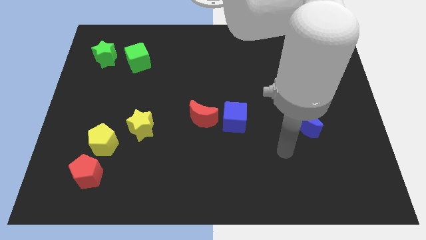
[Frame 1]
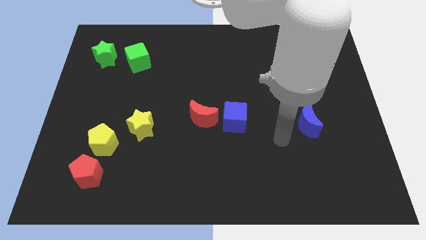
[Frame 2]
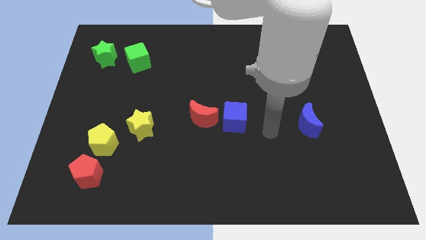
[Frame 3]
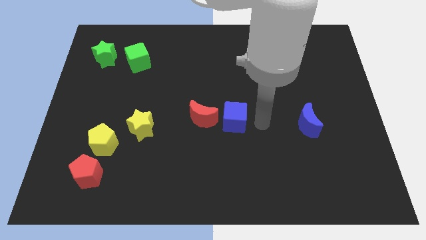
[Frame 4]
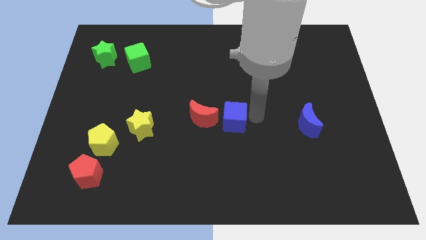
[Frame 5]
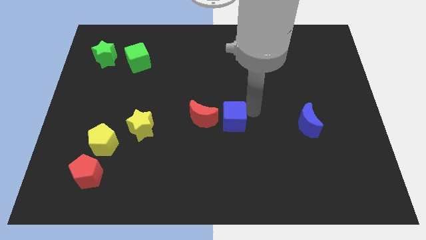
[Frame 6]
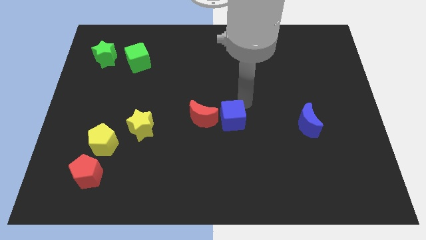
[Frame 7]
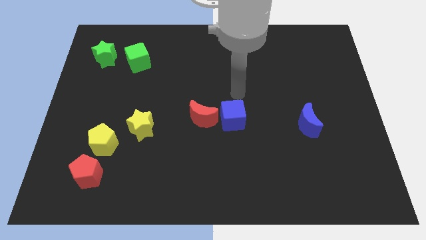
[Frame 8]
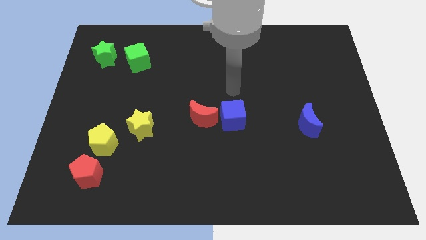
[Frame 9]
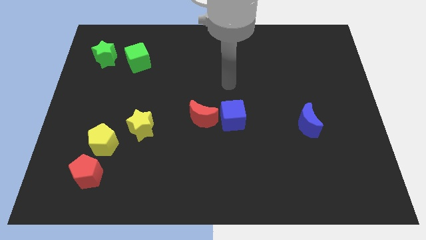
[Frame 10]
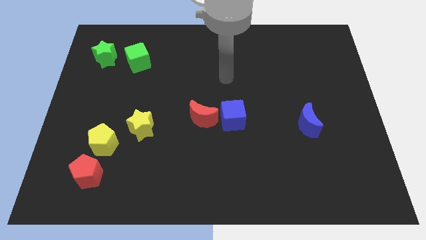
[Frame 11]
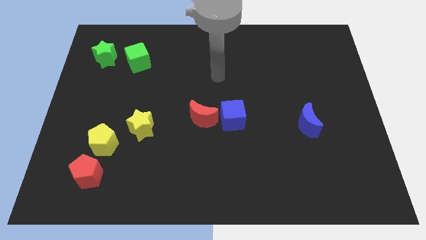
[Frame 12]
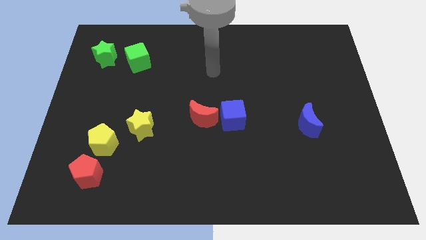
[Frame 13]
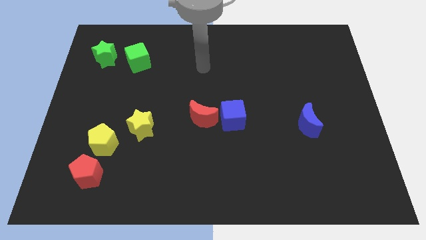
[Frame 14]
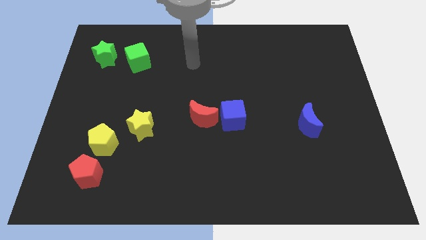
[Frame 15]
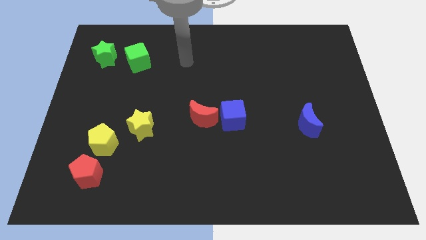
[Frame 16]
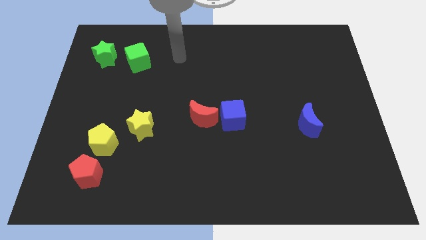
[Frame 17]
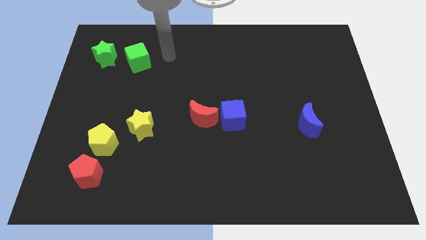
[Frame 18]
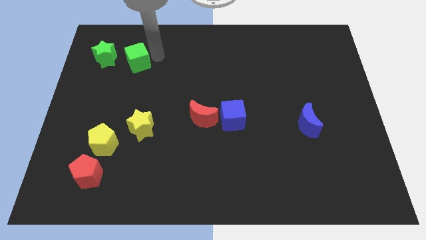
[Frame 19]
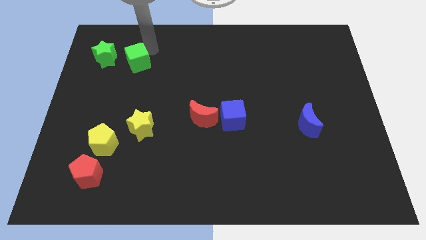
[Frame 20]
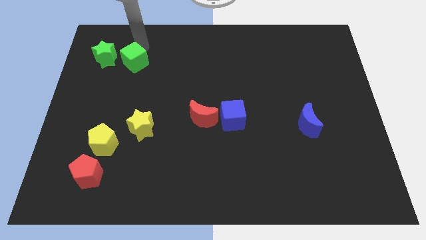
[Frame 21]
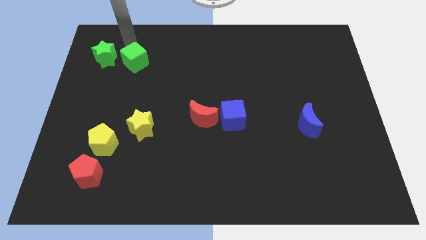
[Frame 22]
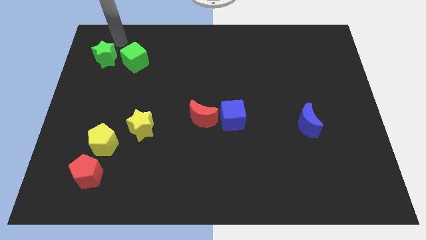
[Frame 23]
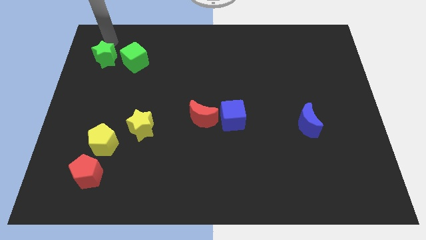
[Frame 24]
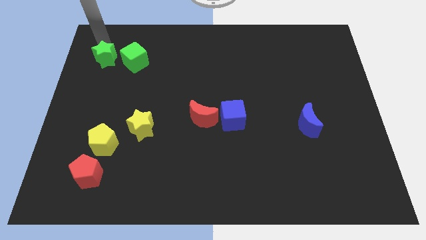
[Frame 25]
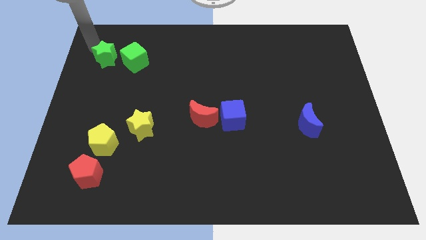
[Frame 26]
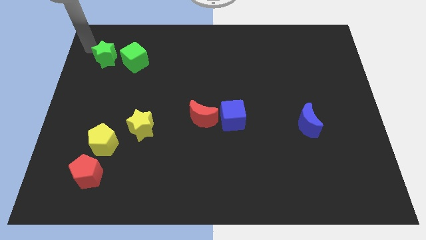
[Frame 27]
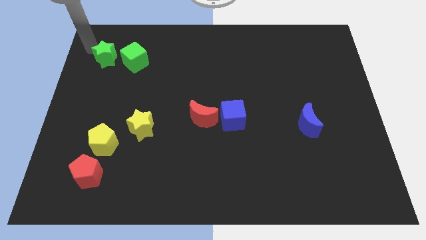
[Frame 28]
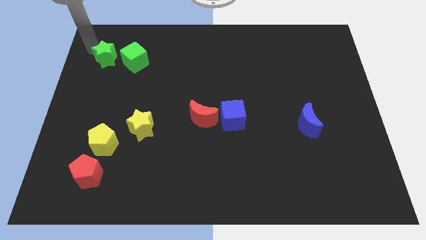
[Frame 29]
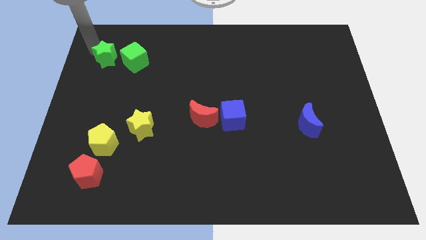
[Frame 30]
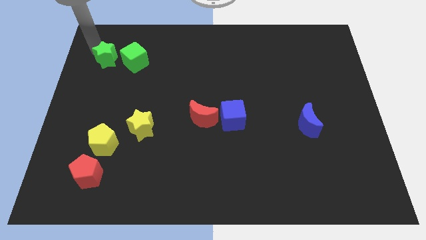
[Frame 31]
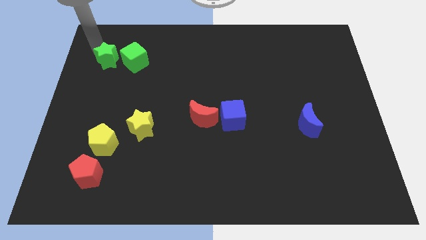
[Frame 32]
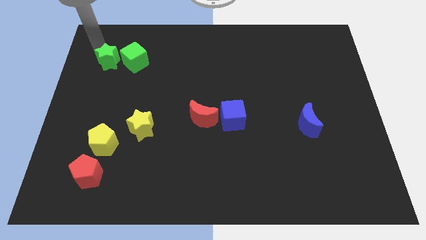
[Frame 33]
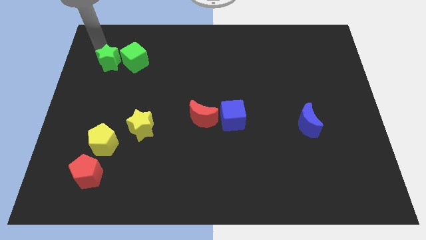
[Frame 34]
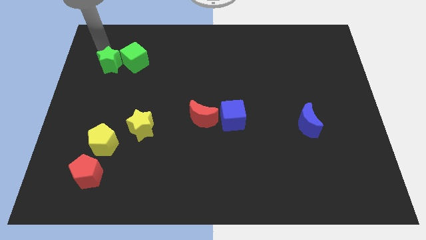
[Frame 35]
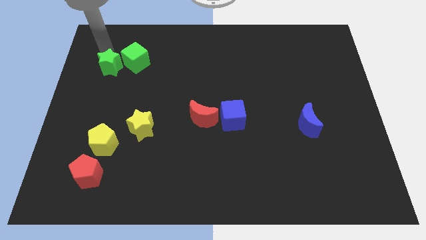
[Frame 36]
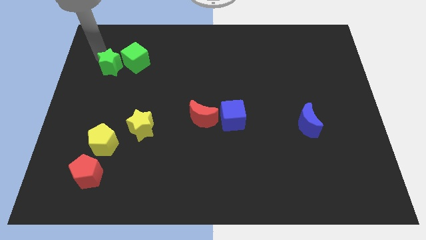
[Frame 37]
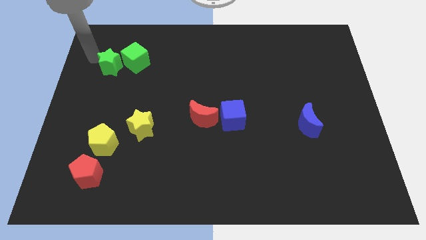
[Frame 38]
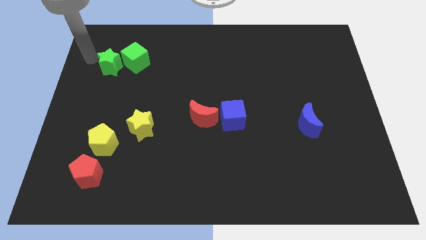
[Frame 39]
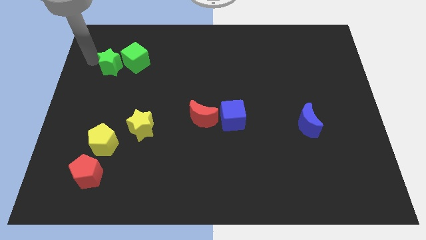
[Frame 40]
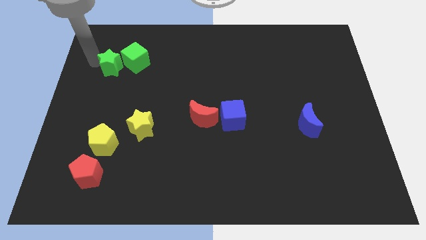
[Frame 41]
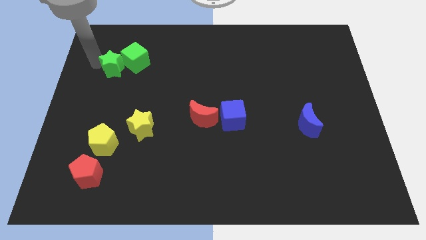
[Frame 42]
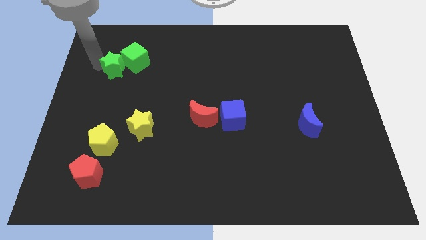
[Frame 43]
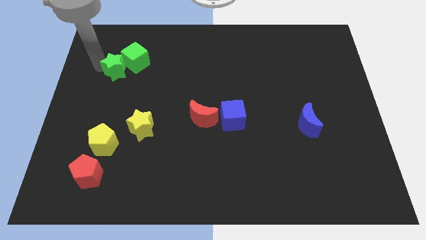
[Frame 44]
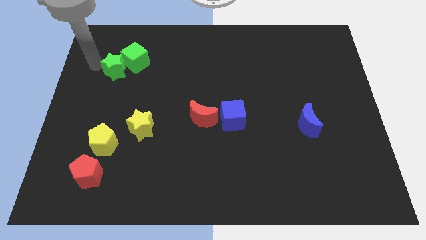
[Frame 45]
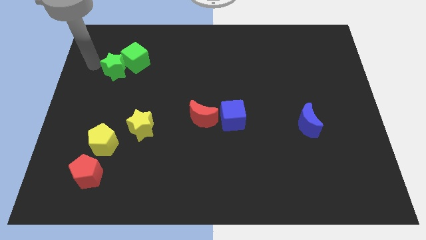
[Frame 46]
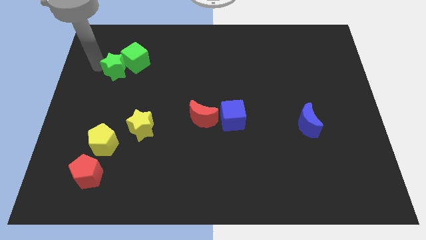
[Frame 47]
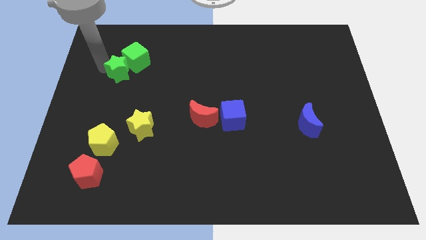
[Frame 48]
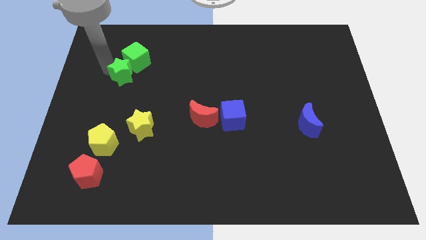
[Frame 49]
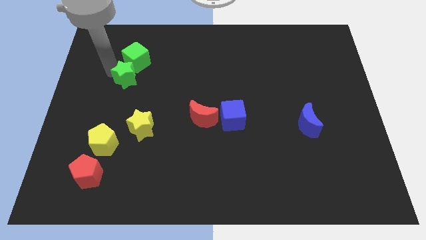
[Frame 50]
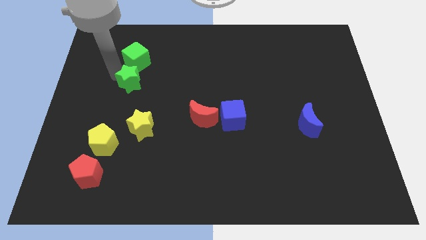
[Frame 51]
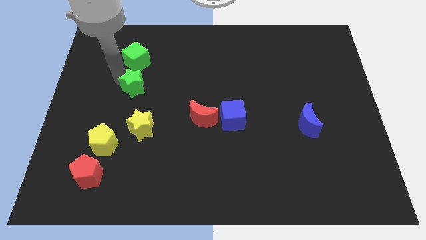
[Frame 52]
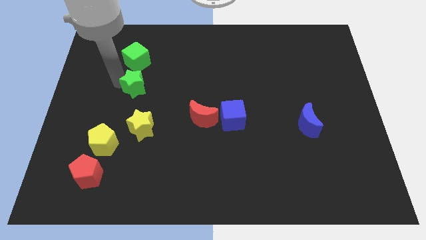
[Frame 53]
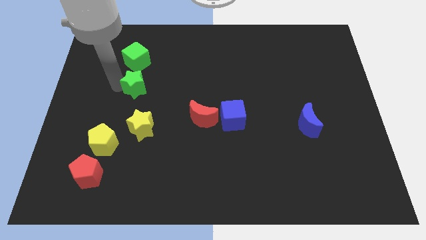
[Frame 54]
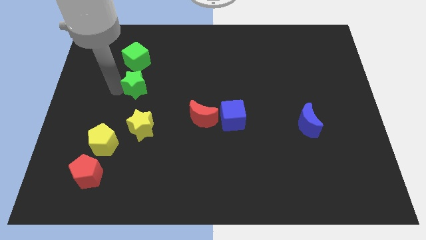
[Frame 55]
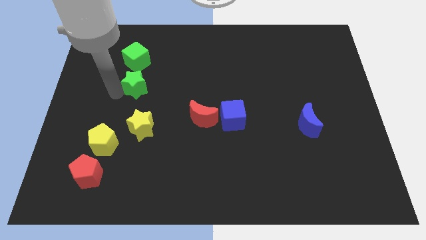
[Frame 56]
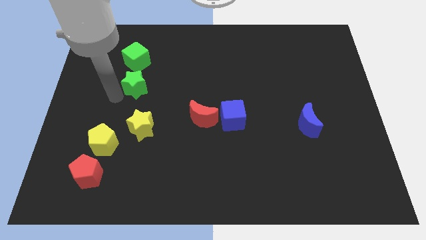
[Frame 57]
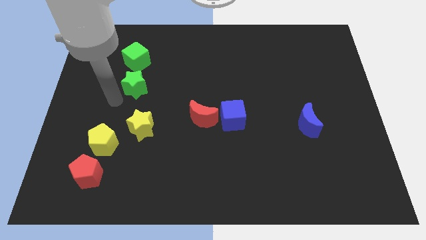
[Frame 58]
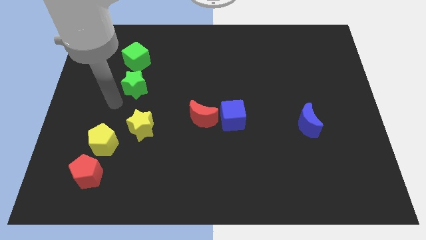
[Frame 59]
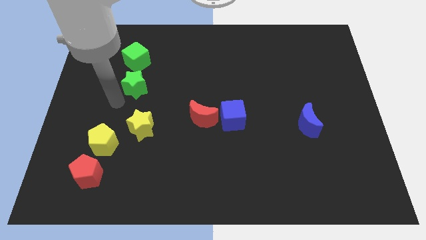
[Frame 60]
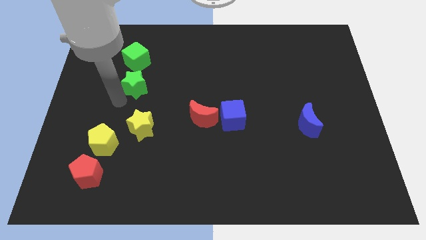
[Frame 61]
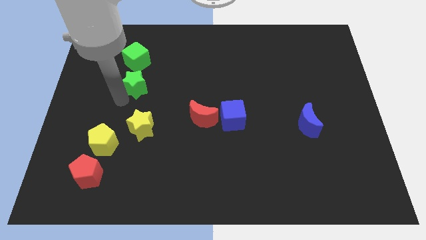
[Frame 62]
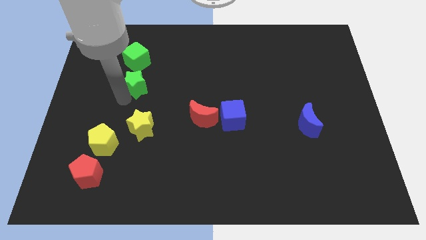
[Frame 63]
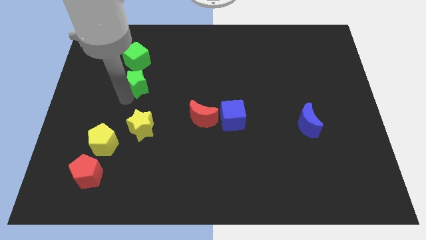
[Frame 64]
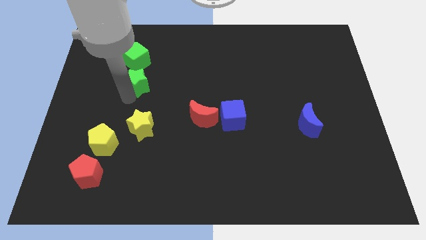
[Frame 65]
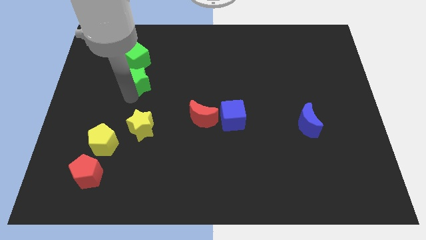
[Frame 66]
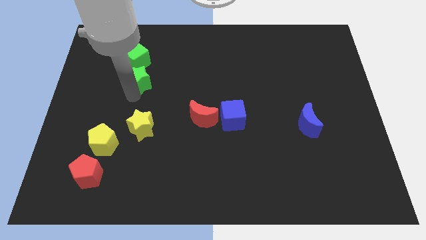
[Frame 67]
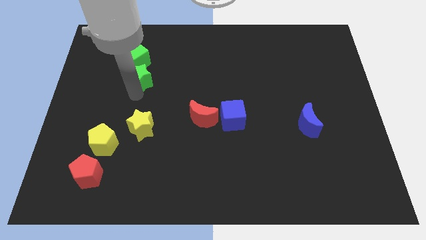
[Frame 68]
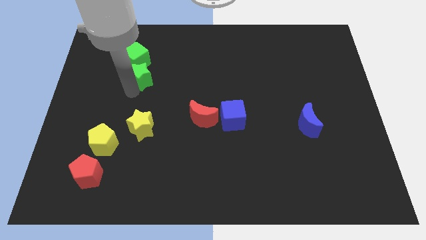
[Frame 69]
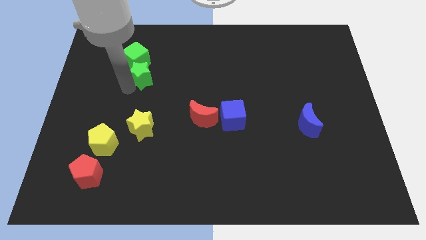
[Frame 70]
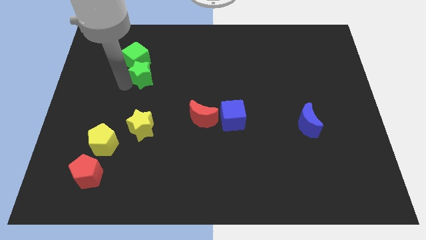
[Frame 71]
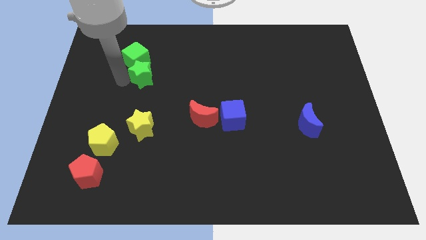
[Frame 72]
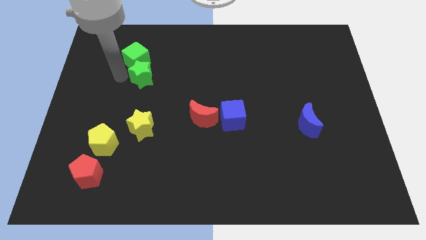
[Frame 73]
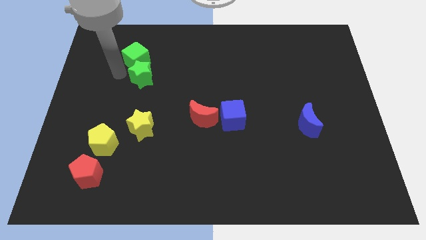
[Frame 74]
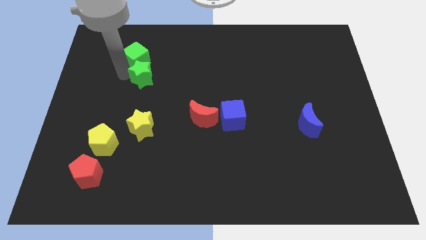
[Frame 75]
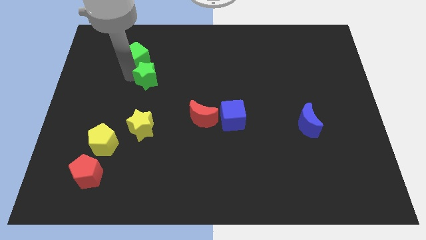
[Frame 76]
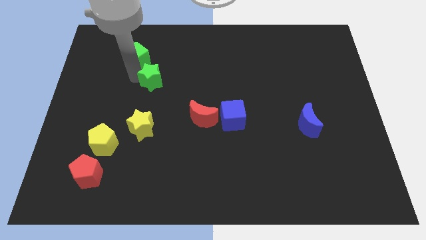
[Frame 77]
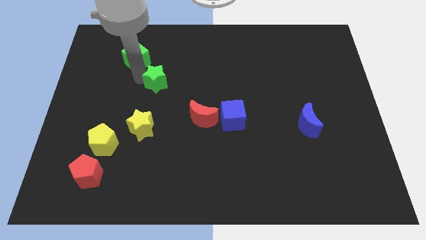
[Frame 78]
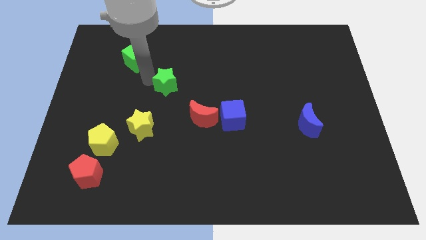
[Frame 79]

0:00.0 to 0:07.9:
move the green star to the center
